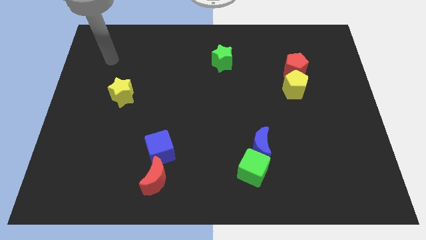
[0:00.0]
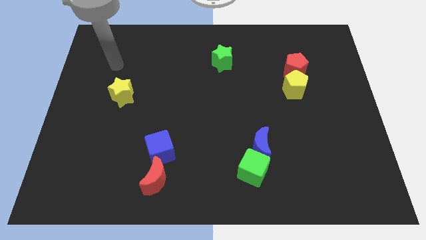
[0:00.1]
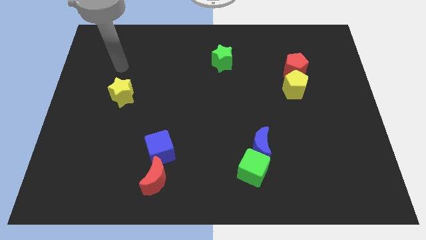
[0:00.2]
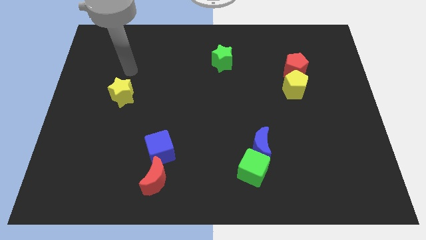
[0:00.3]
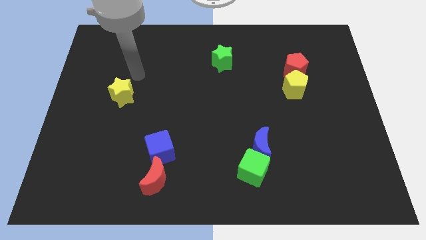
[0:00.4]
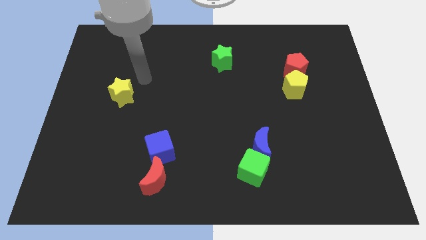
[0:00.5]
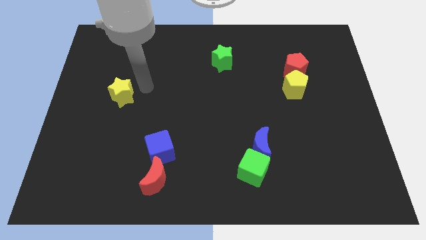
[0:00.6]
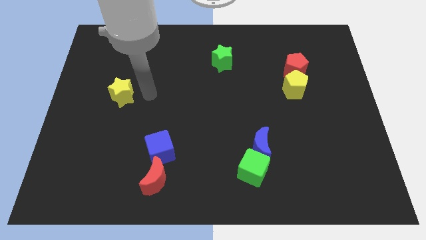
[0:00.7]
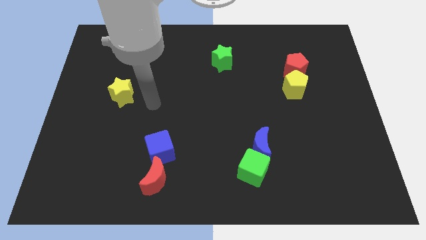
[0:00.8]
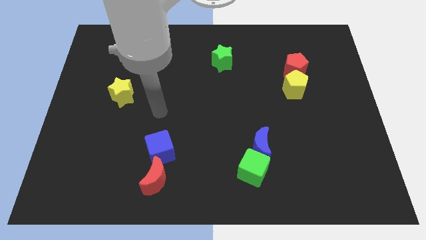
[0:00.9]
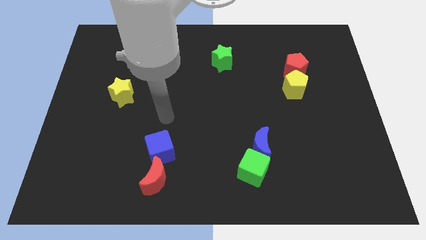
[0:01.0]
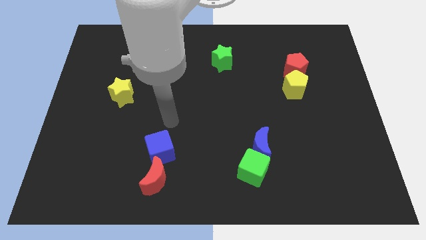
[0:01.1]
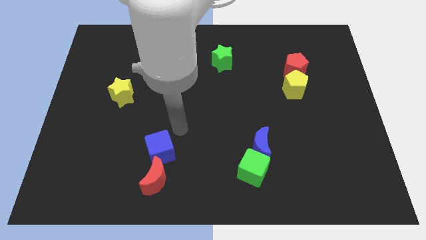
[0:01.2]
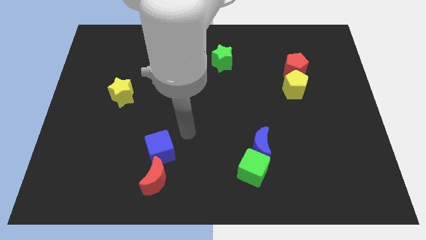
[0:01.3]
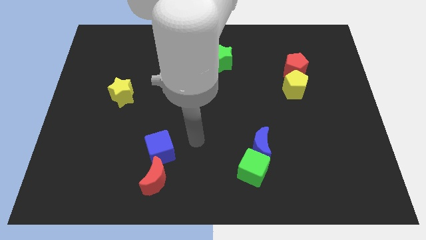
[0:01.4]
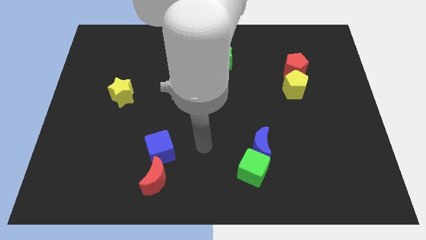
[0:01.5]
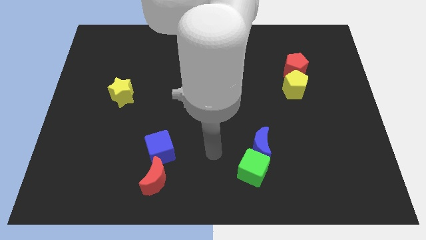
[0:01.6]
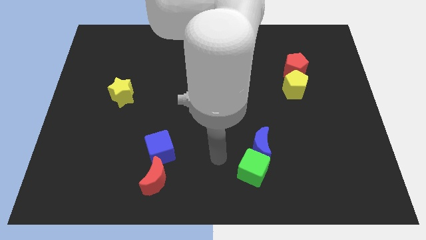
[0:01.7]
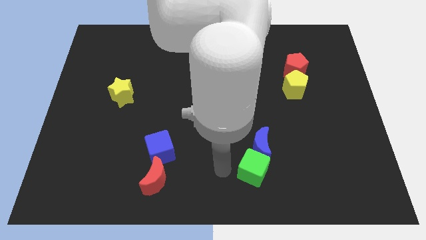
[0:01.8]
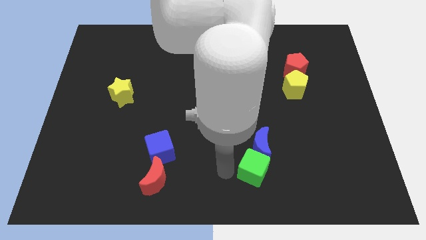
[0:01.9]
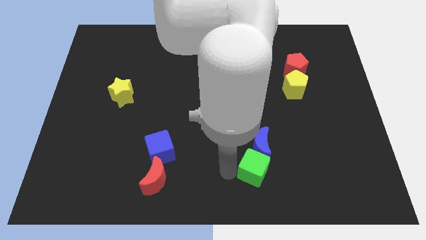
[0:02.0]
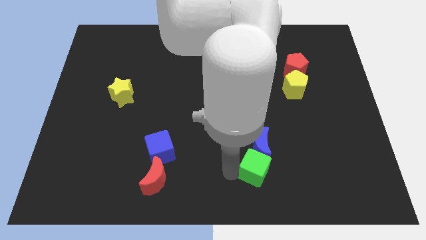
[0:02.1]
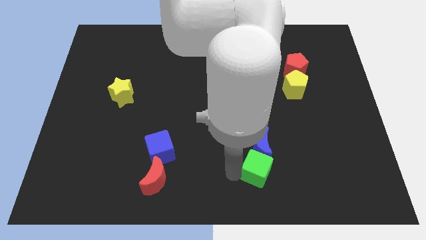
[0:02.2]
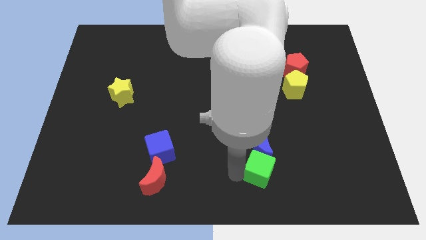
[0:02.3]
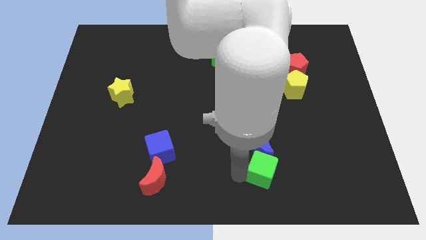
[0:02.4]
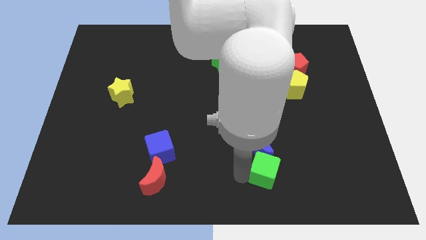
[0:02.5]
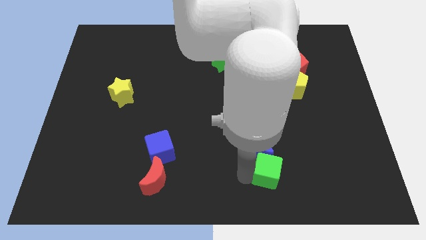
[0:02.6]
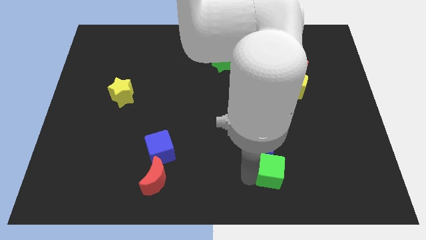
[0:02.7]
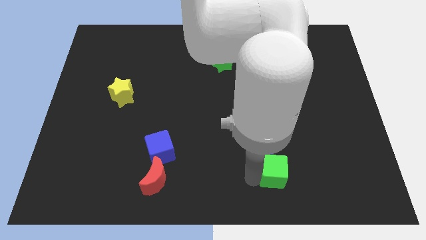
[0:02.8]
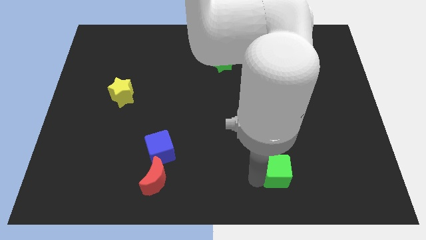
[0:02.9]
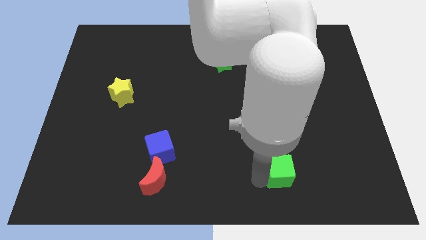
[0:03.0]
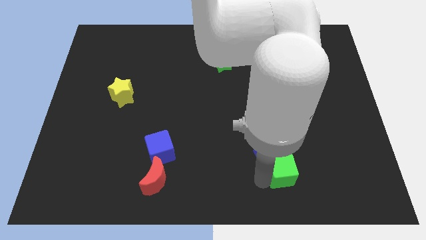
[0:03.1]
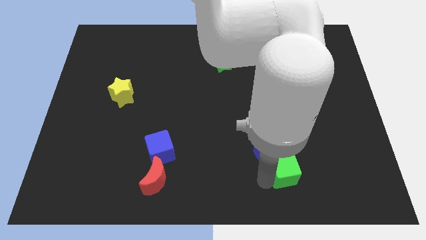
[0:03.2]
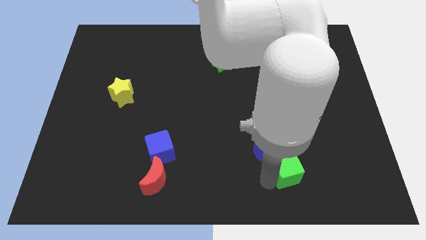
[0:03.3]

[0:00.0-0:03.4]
slightly slide the green cube to the right

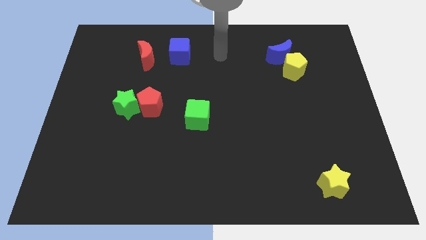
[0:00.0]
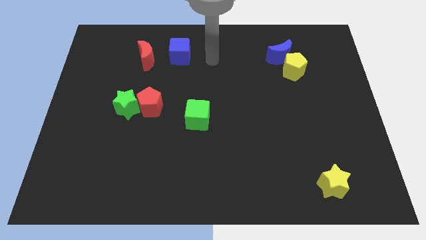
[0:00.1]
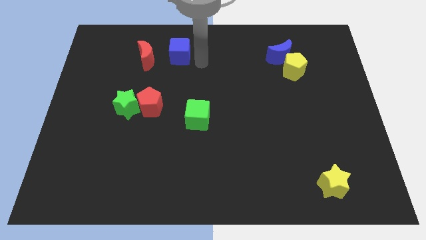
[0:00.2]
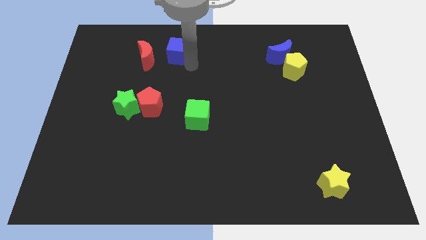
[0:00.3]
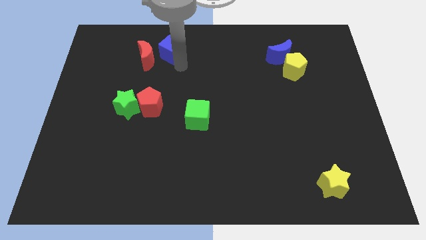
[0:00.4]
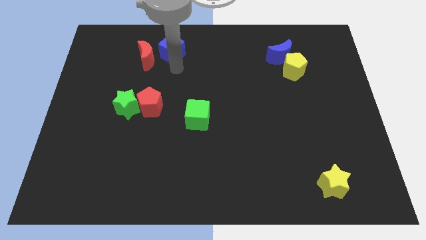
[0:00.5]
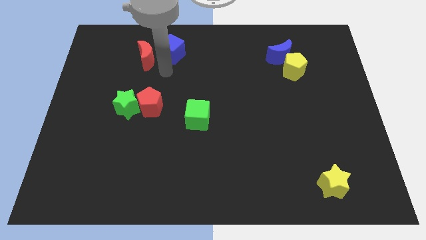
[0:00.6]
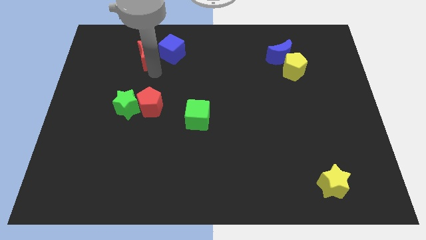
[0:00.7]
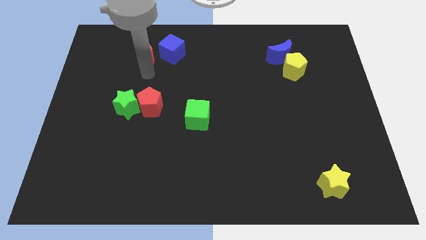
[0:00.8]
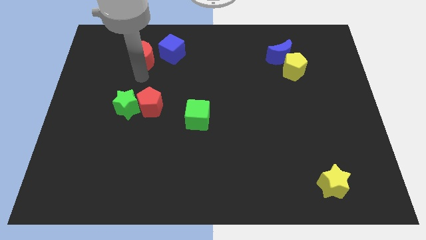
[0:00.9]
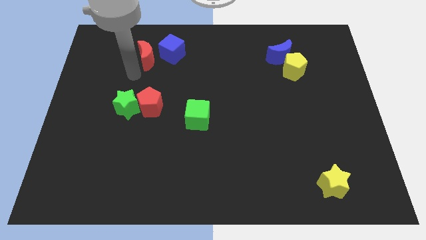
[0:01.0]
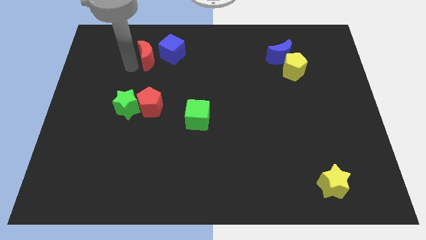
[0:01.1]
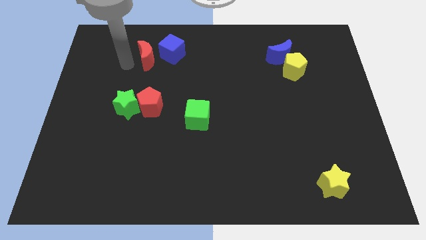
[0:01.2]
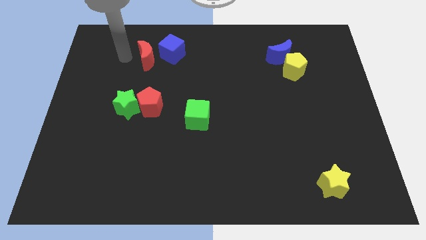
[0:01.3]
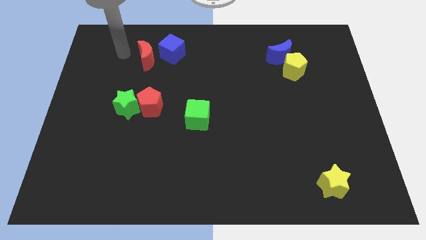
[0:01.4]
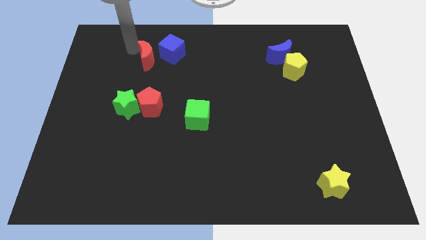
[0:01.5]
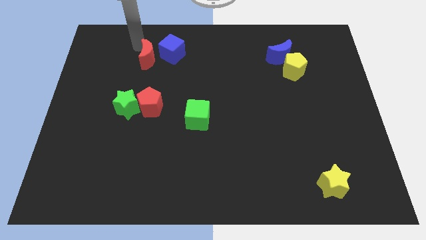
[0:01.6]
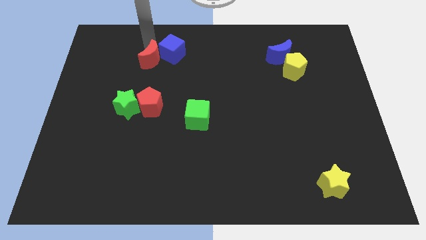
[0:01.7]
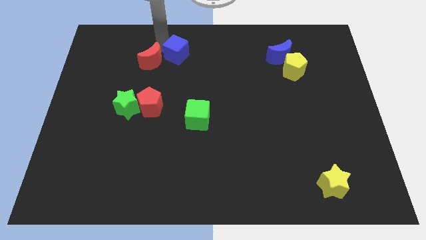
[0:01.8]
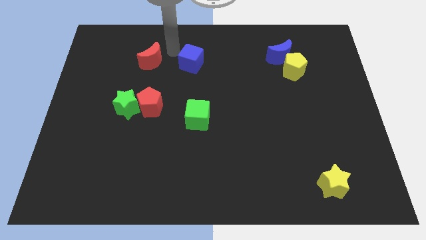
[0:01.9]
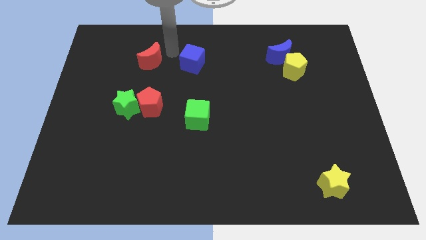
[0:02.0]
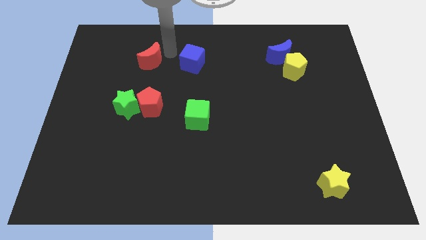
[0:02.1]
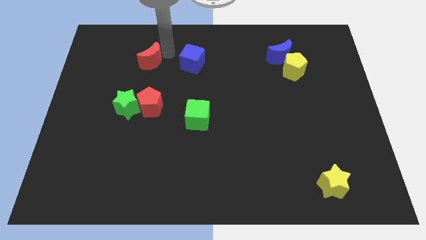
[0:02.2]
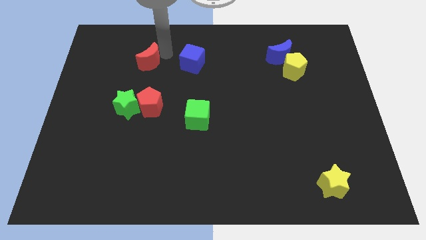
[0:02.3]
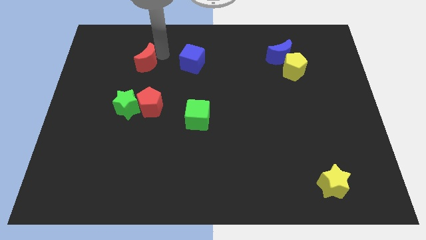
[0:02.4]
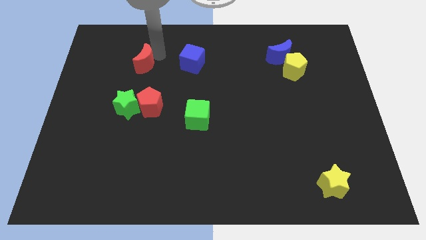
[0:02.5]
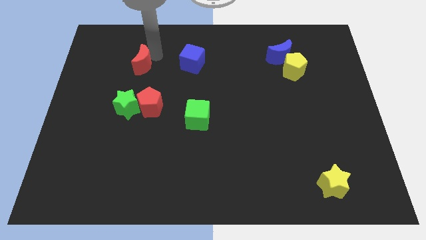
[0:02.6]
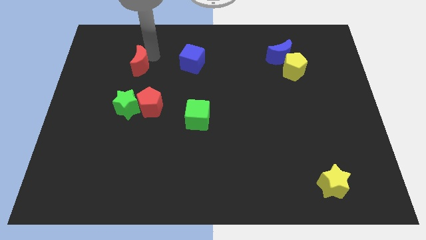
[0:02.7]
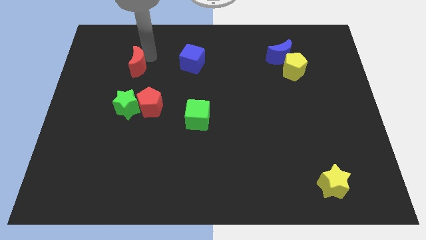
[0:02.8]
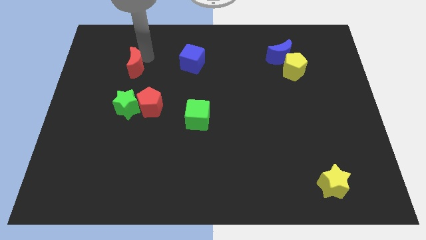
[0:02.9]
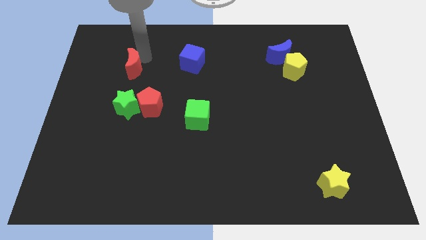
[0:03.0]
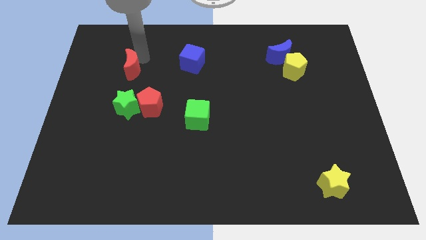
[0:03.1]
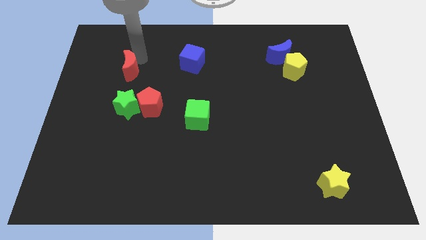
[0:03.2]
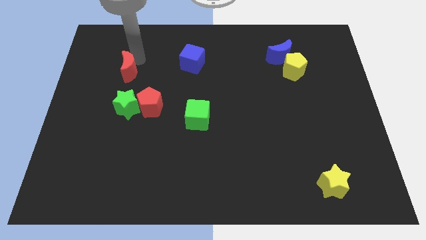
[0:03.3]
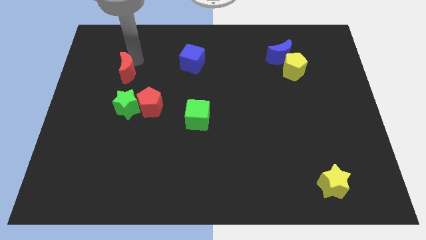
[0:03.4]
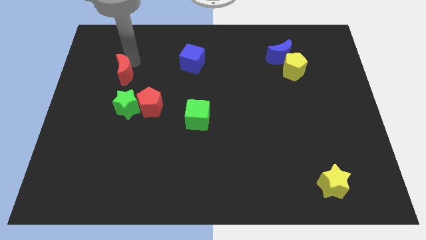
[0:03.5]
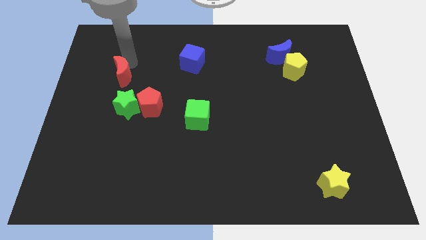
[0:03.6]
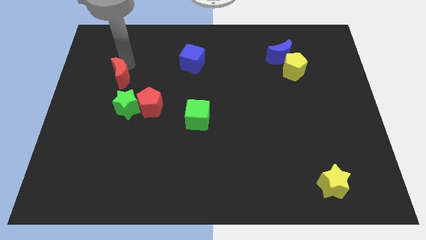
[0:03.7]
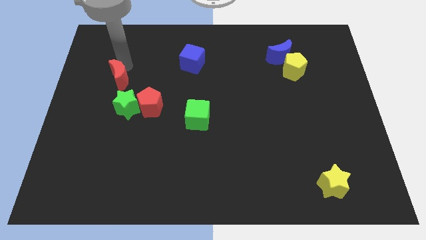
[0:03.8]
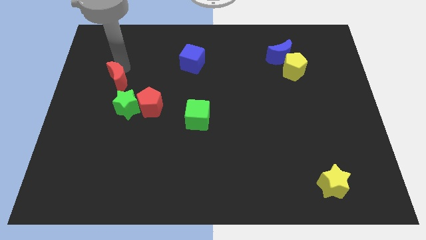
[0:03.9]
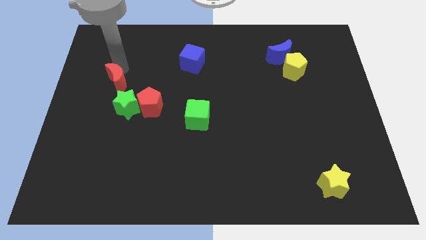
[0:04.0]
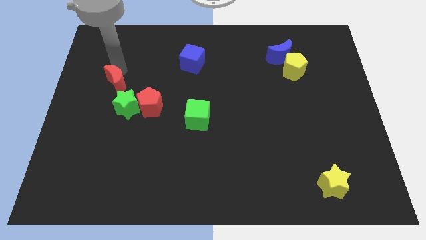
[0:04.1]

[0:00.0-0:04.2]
slide the red moon a bit downwards

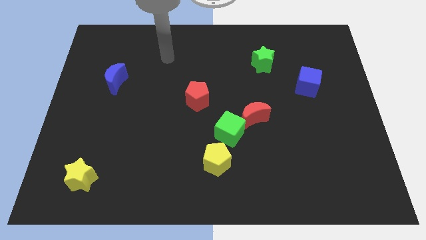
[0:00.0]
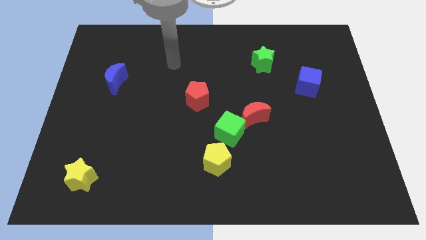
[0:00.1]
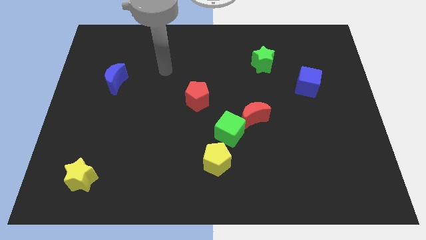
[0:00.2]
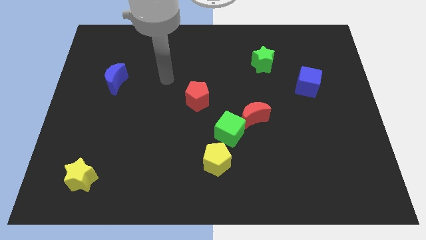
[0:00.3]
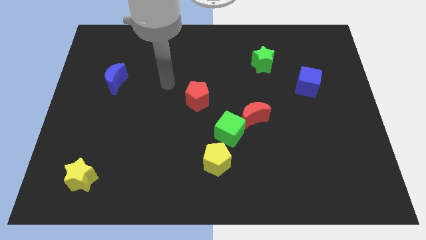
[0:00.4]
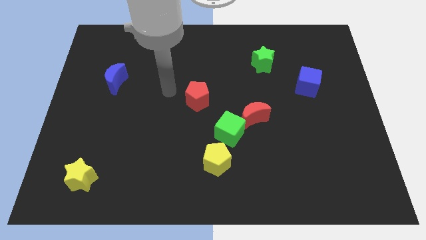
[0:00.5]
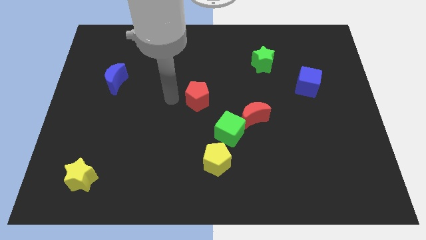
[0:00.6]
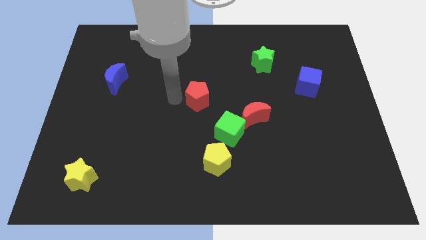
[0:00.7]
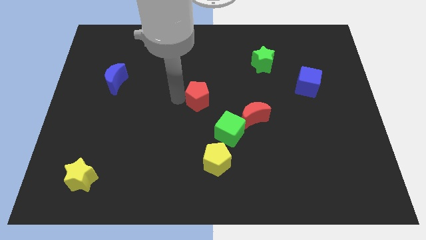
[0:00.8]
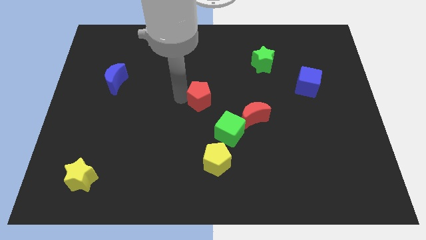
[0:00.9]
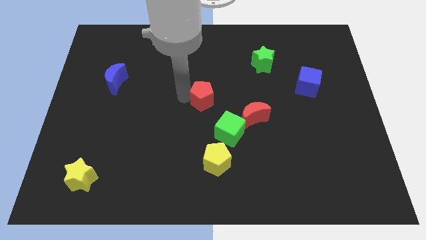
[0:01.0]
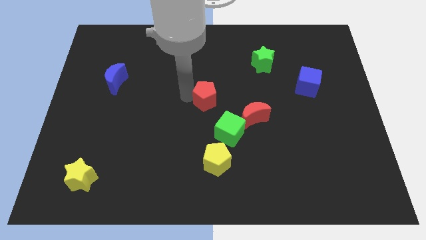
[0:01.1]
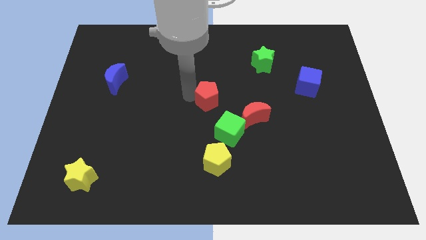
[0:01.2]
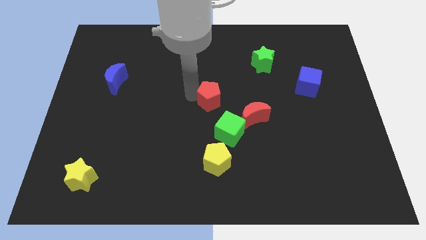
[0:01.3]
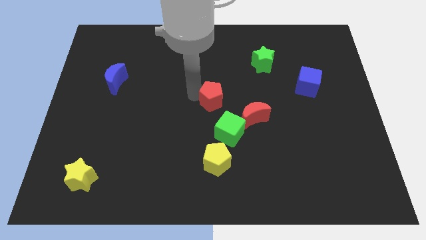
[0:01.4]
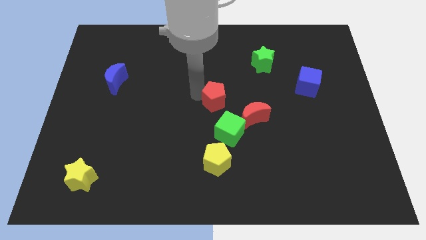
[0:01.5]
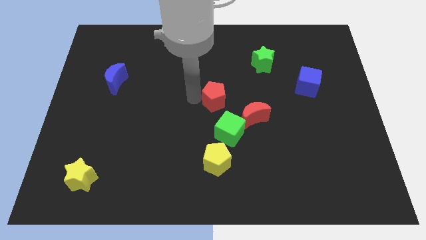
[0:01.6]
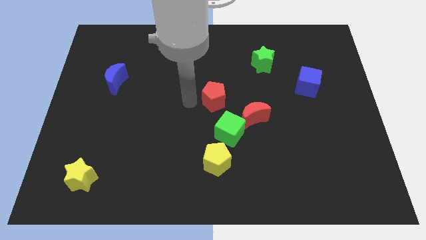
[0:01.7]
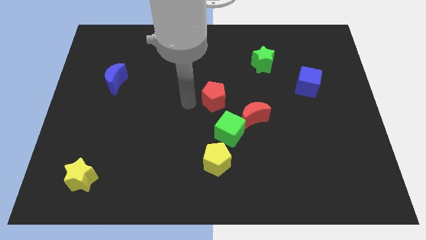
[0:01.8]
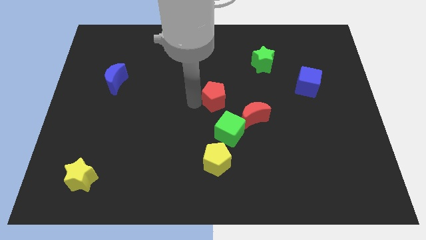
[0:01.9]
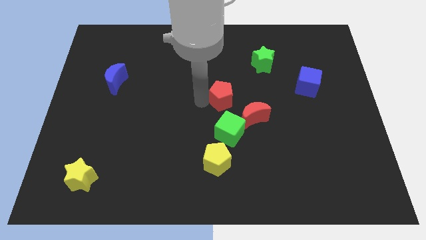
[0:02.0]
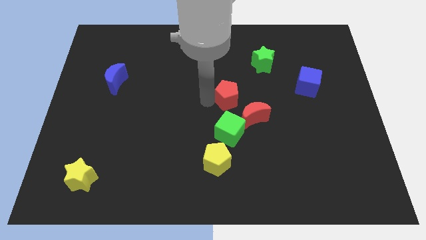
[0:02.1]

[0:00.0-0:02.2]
push the red pentagon right somewhat
